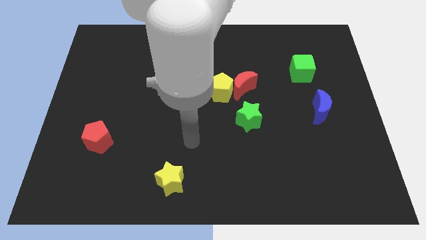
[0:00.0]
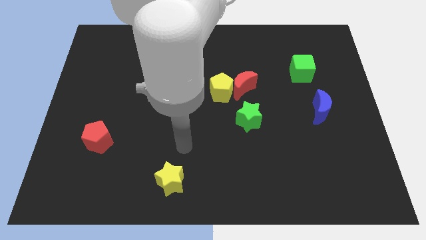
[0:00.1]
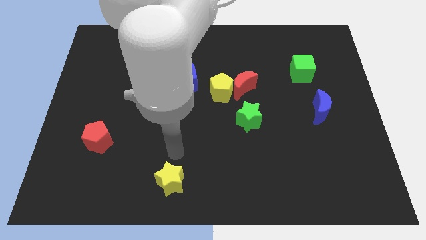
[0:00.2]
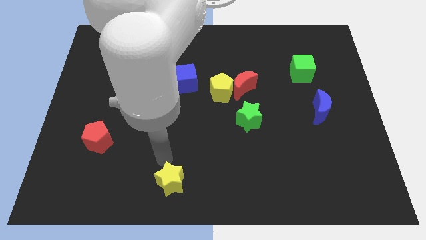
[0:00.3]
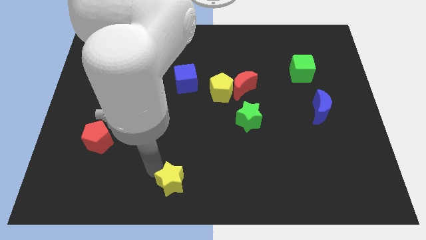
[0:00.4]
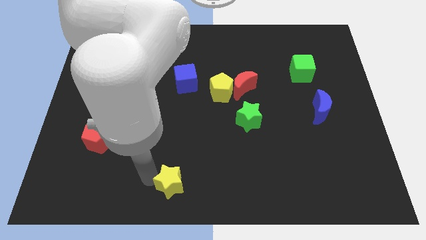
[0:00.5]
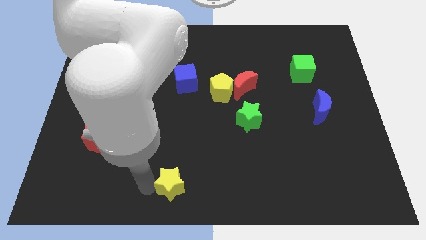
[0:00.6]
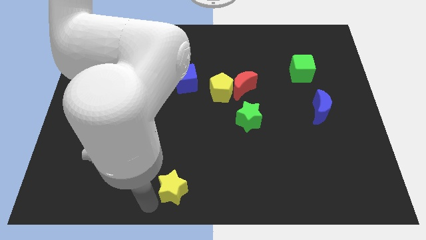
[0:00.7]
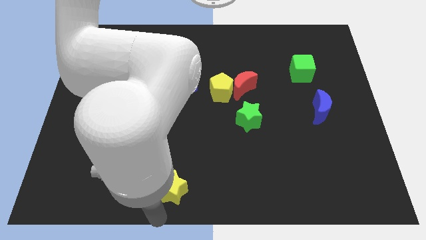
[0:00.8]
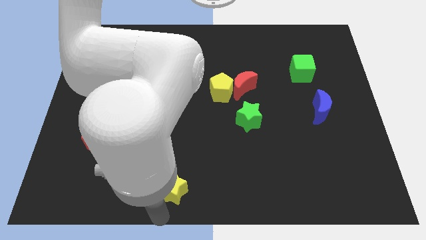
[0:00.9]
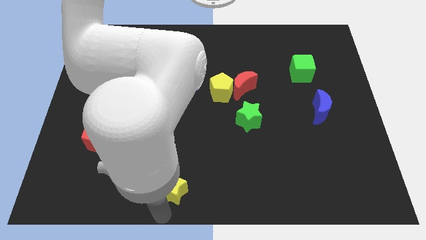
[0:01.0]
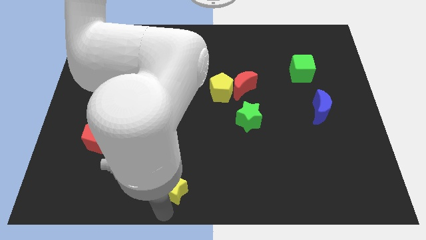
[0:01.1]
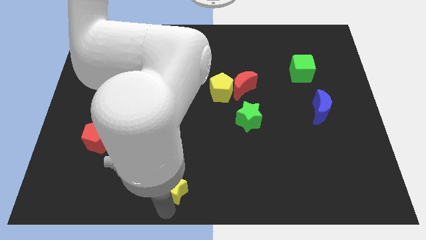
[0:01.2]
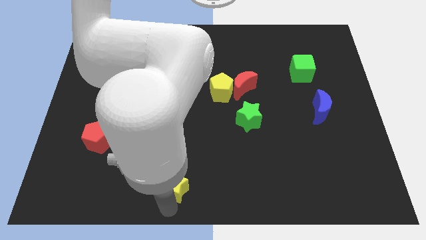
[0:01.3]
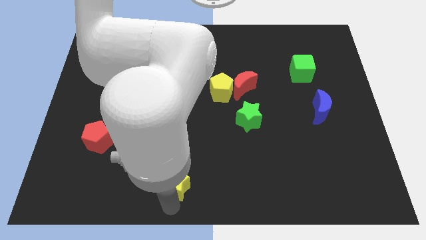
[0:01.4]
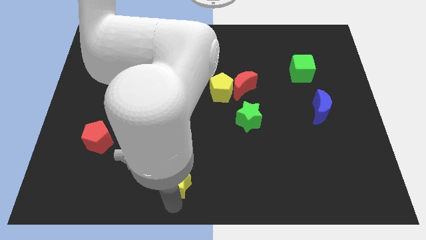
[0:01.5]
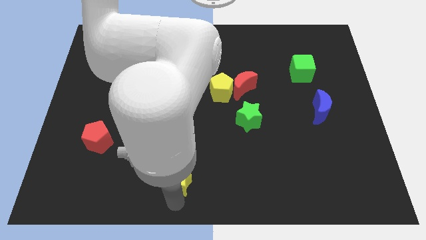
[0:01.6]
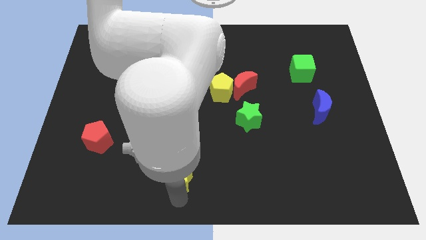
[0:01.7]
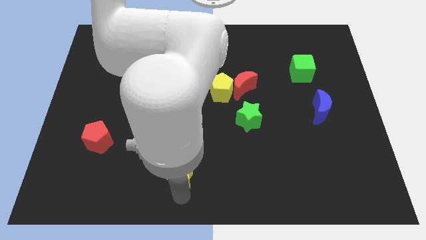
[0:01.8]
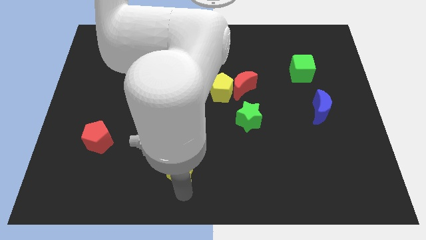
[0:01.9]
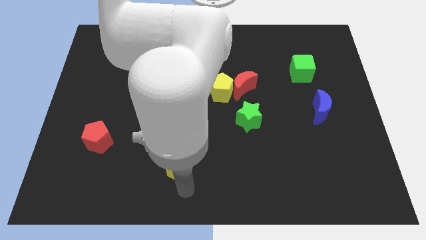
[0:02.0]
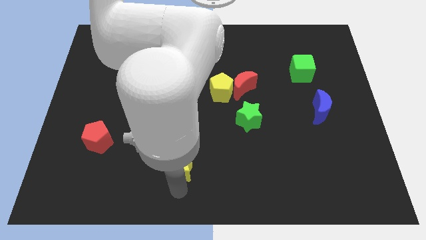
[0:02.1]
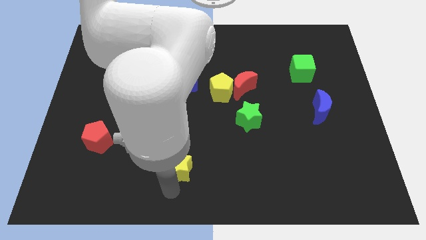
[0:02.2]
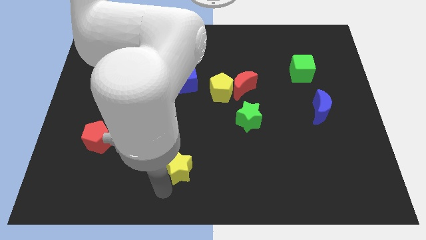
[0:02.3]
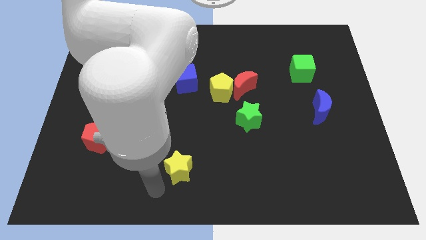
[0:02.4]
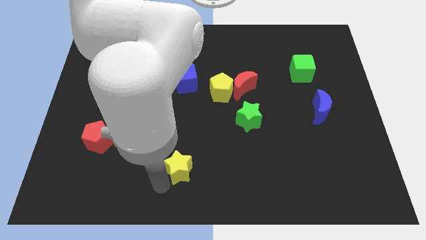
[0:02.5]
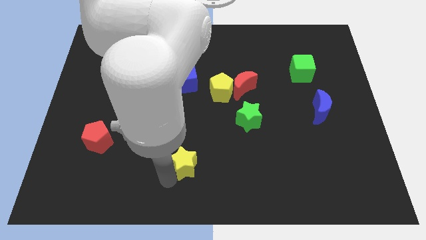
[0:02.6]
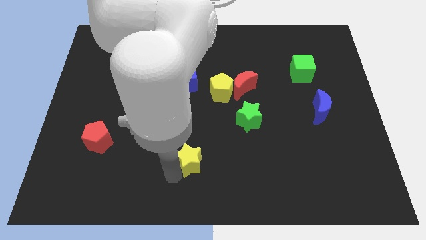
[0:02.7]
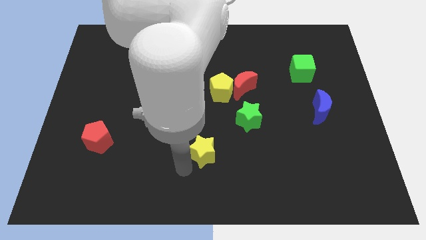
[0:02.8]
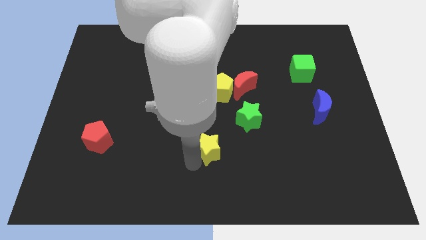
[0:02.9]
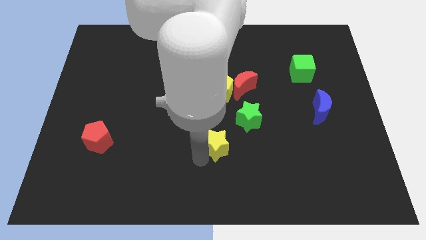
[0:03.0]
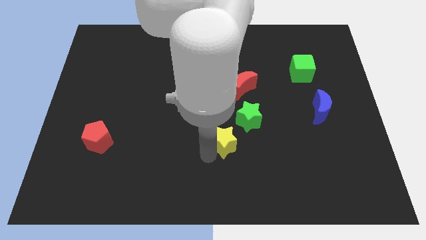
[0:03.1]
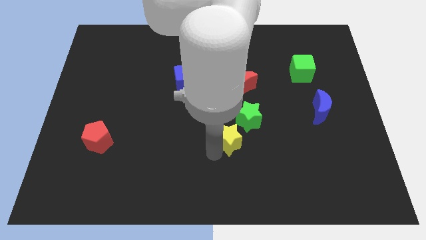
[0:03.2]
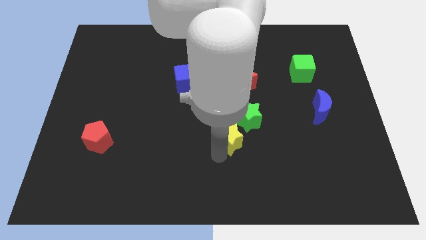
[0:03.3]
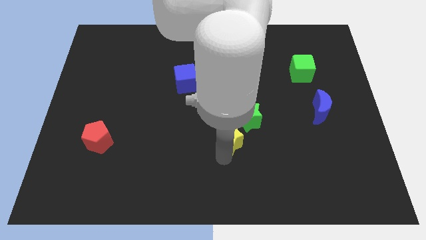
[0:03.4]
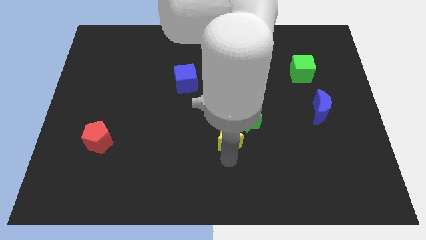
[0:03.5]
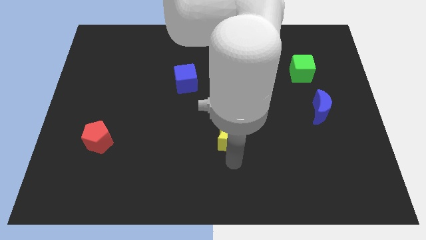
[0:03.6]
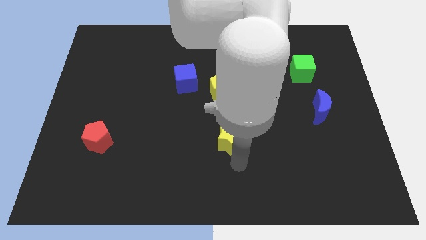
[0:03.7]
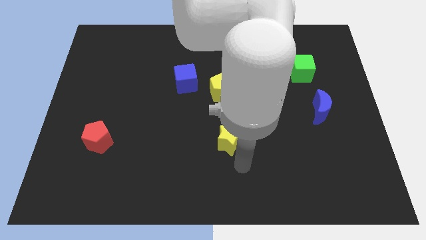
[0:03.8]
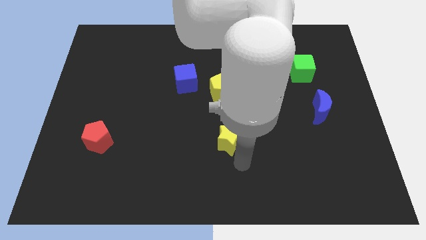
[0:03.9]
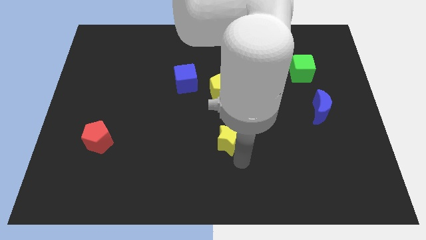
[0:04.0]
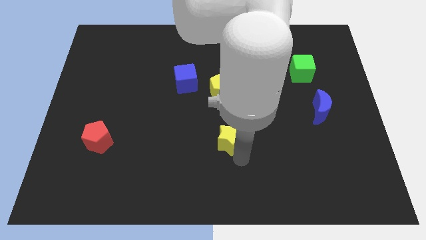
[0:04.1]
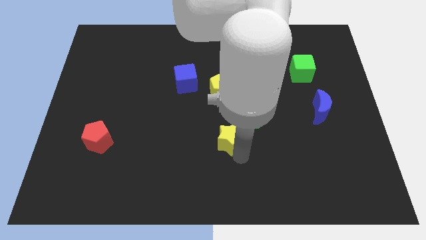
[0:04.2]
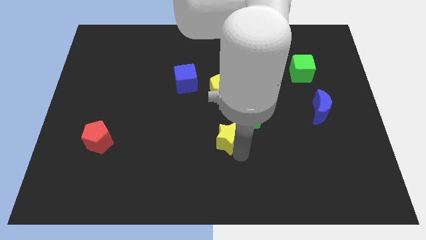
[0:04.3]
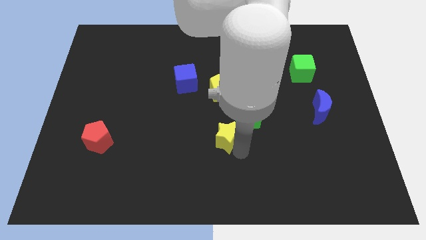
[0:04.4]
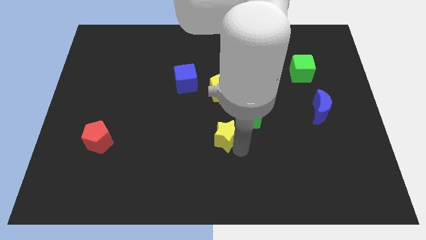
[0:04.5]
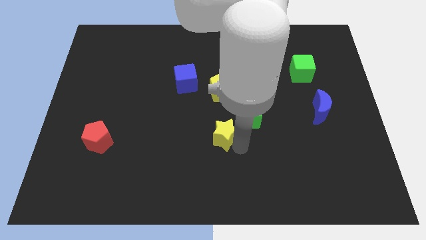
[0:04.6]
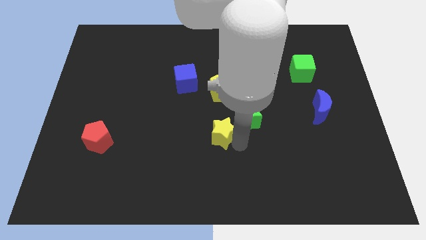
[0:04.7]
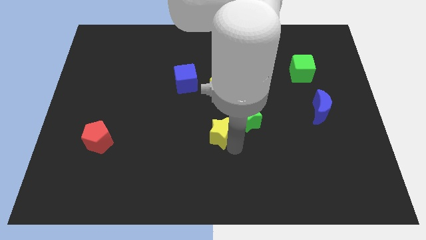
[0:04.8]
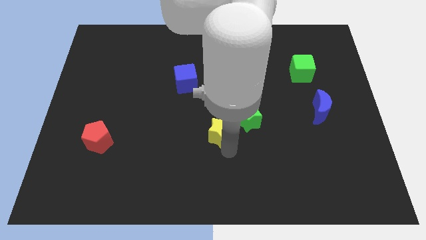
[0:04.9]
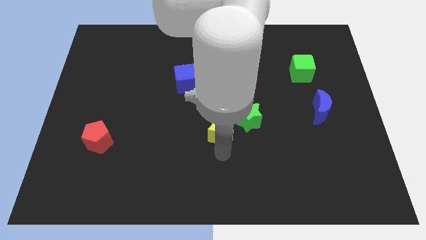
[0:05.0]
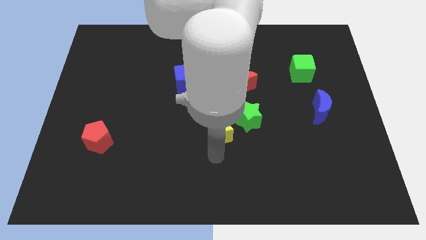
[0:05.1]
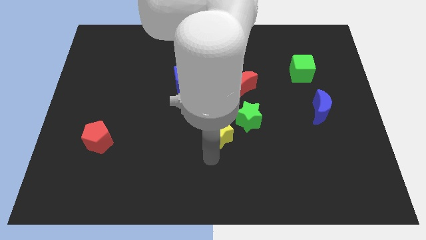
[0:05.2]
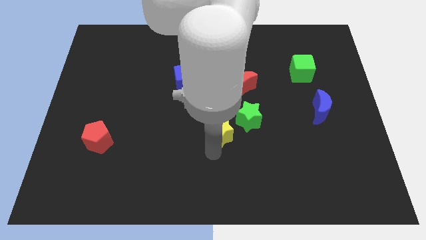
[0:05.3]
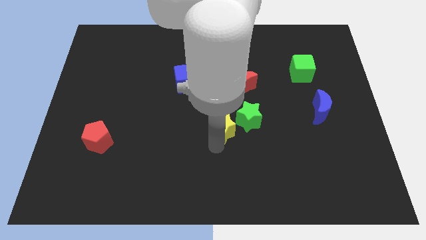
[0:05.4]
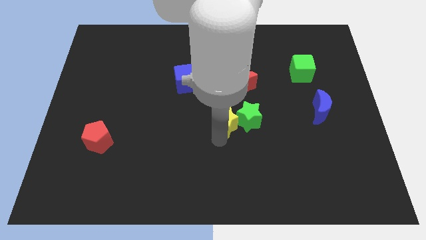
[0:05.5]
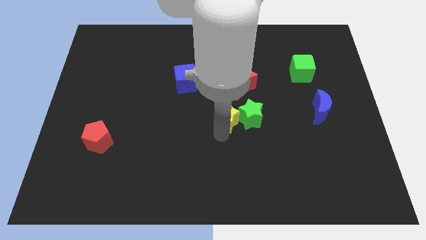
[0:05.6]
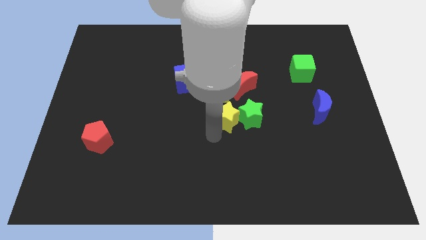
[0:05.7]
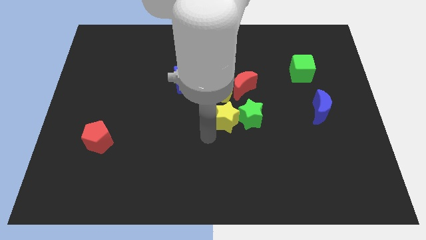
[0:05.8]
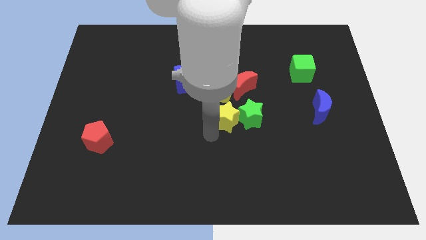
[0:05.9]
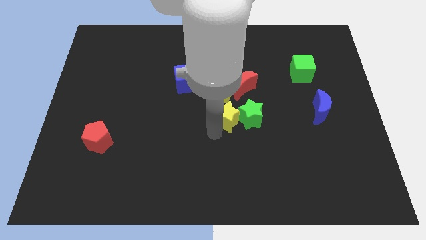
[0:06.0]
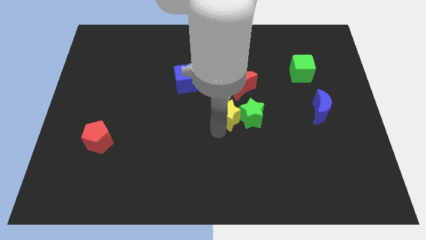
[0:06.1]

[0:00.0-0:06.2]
move the yellow star diagonally up and to the right

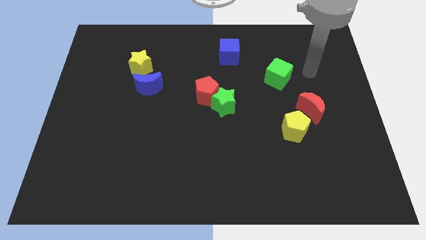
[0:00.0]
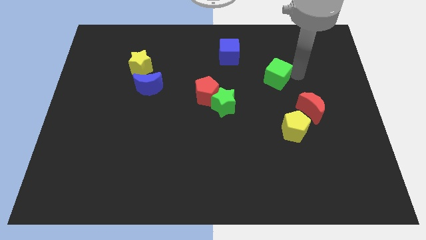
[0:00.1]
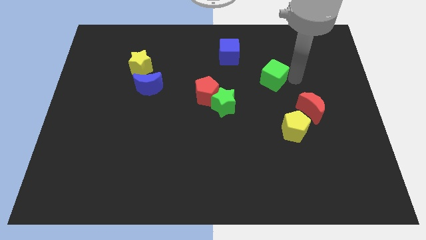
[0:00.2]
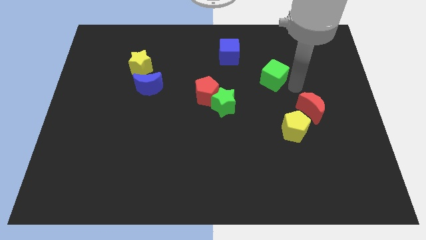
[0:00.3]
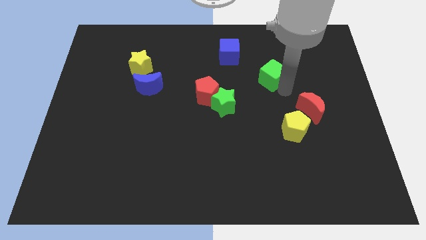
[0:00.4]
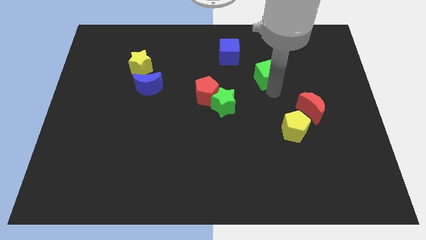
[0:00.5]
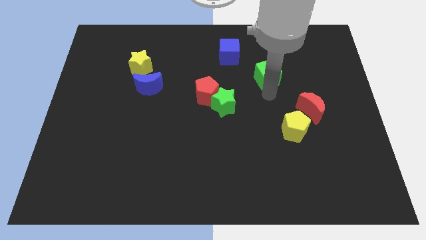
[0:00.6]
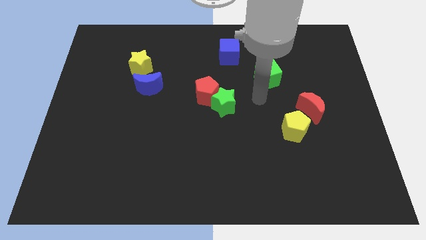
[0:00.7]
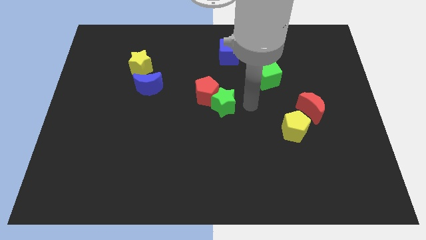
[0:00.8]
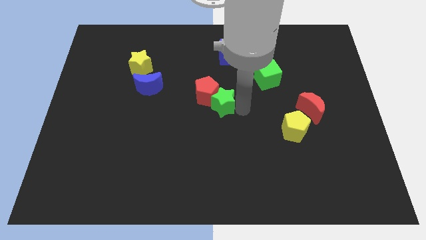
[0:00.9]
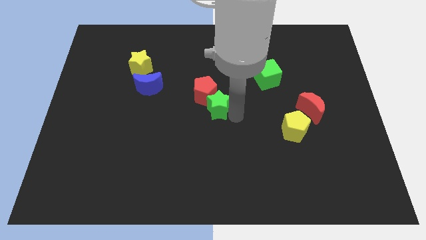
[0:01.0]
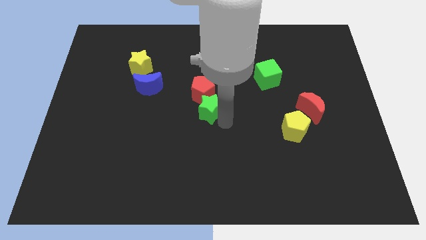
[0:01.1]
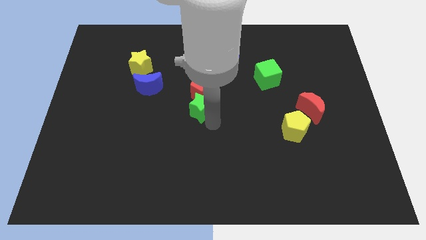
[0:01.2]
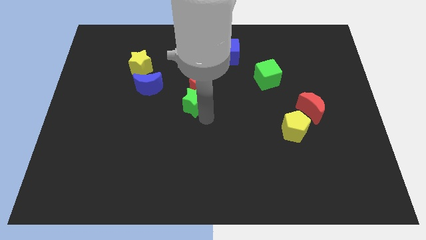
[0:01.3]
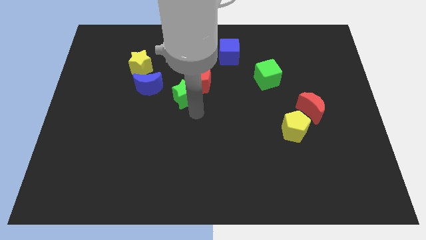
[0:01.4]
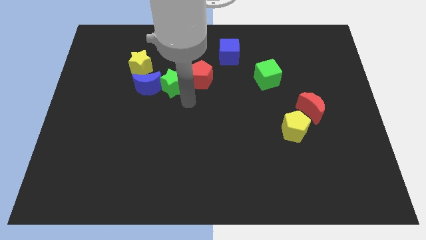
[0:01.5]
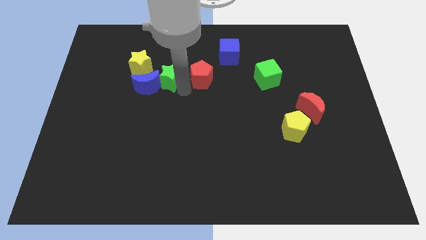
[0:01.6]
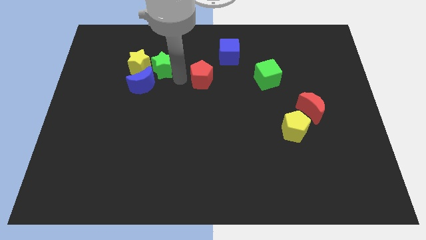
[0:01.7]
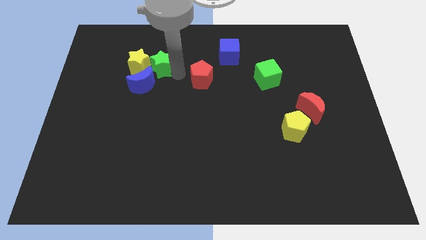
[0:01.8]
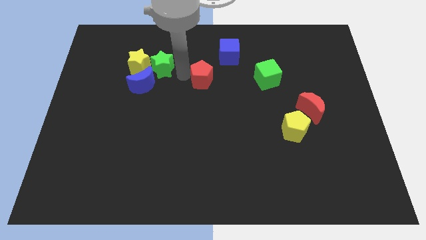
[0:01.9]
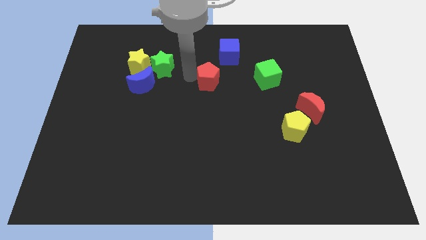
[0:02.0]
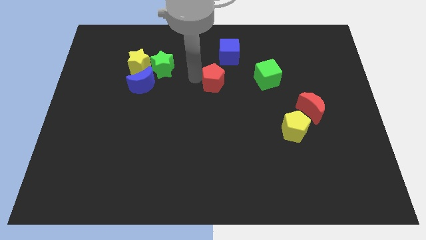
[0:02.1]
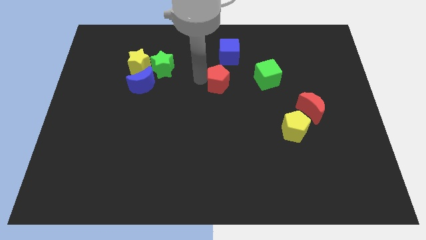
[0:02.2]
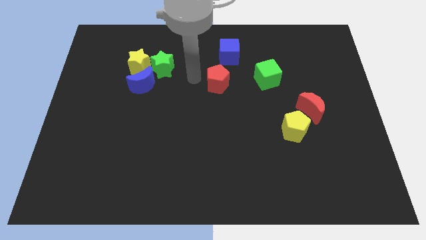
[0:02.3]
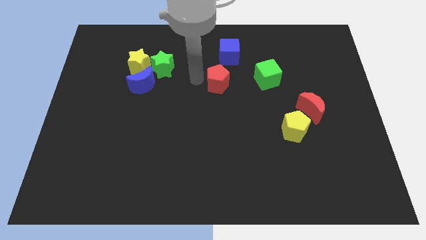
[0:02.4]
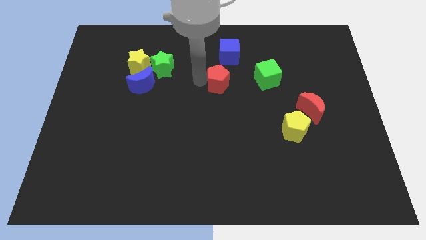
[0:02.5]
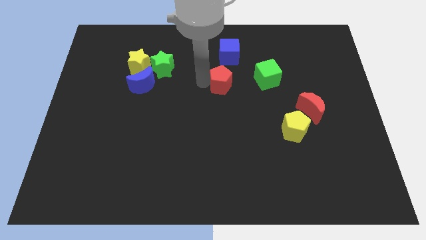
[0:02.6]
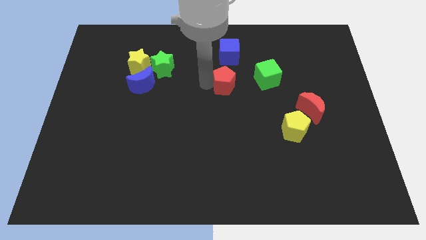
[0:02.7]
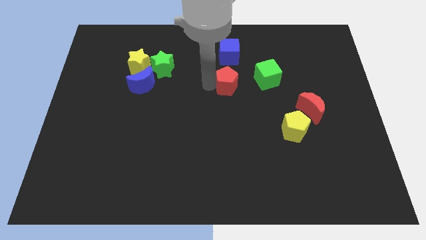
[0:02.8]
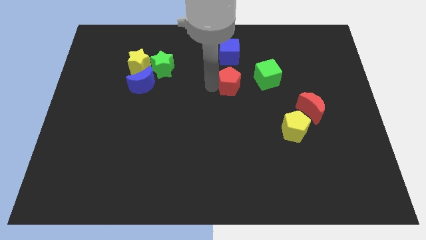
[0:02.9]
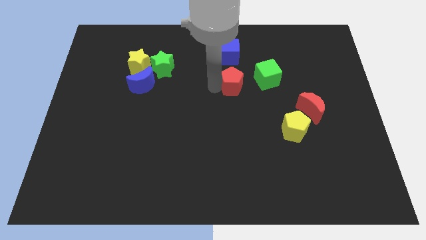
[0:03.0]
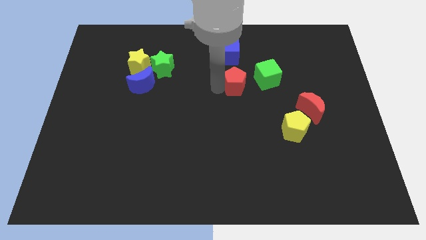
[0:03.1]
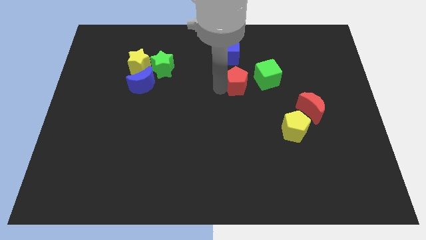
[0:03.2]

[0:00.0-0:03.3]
slide the red pentagon a bit right
